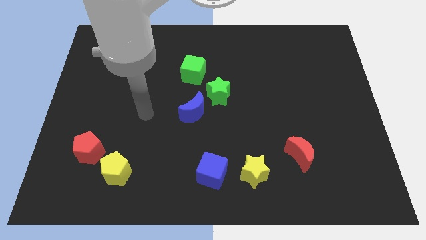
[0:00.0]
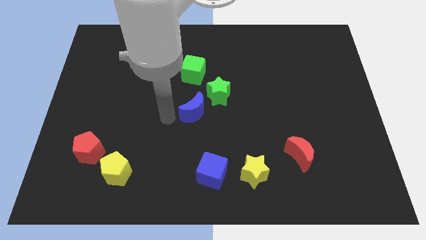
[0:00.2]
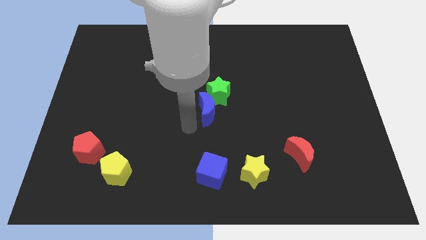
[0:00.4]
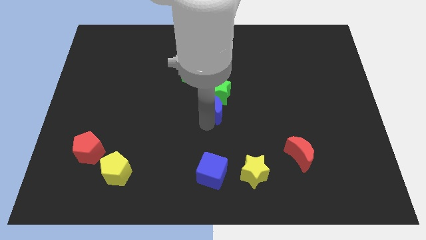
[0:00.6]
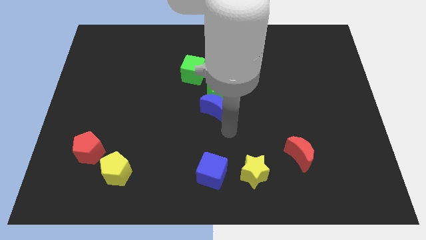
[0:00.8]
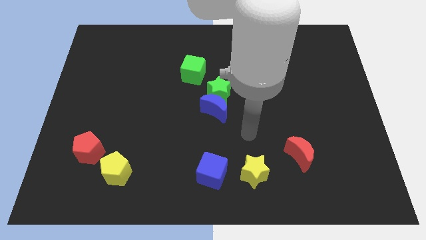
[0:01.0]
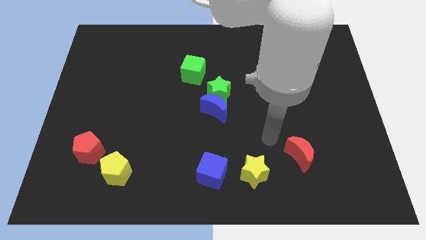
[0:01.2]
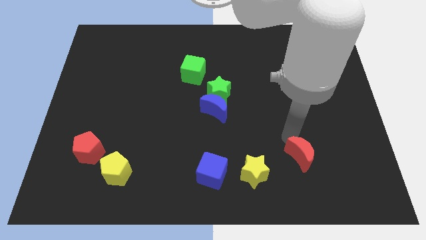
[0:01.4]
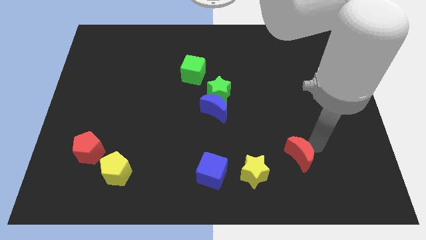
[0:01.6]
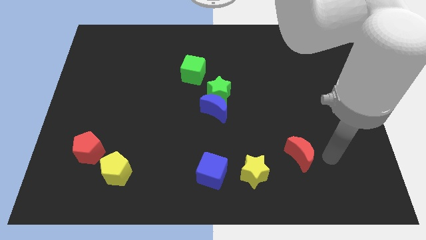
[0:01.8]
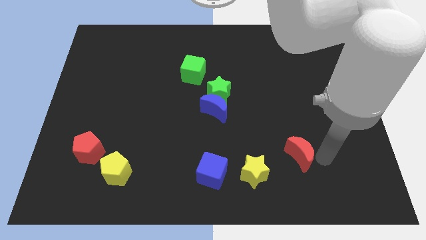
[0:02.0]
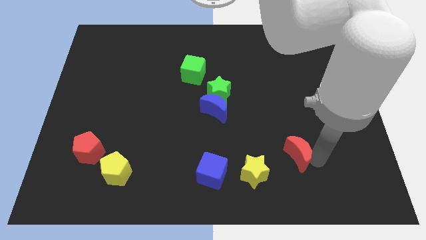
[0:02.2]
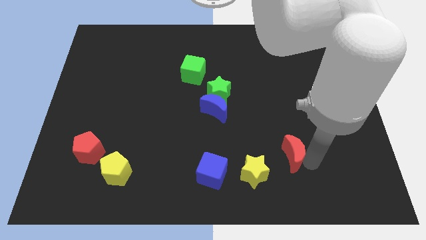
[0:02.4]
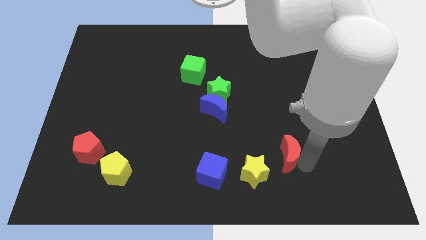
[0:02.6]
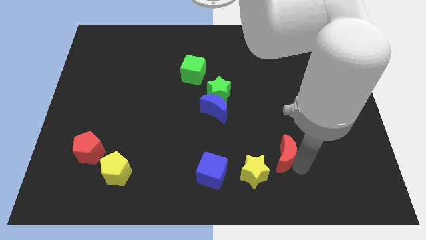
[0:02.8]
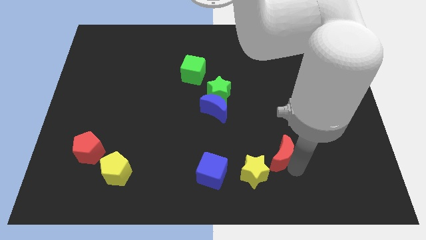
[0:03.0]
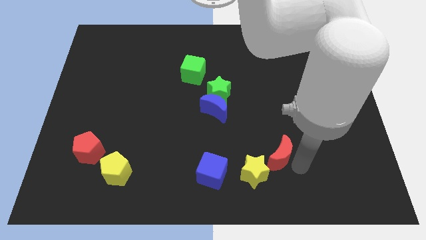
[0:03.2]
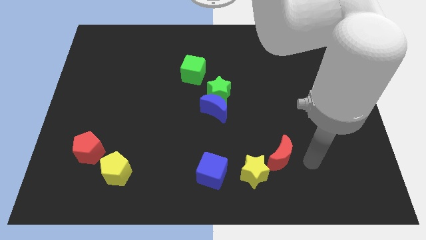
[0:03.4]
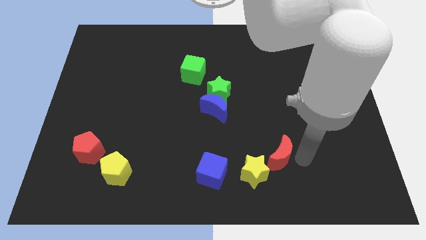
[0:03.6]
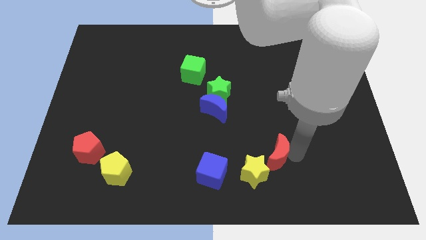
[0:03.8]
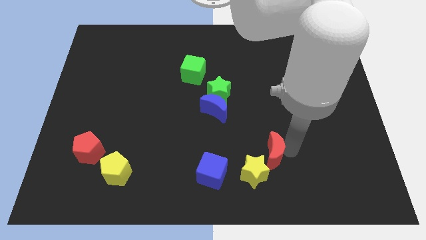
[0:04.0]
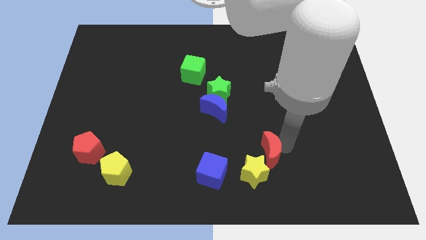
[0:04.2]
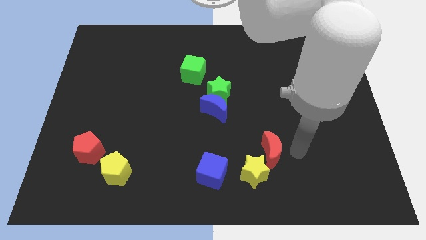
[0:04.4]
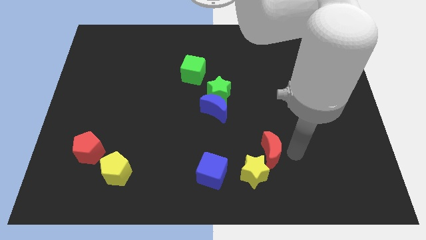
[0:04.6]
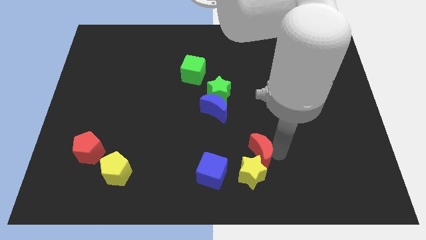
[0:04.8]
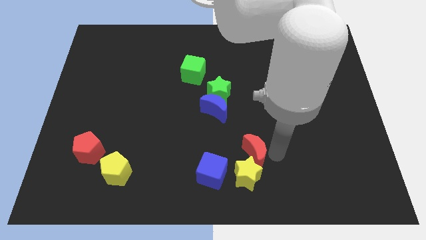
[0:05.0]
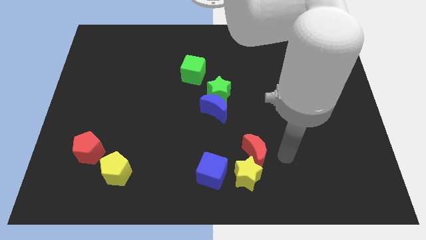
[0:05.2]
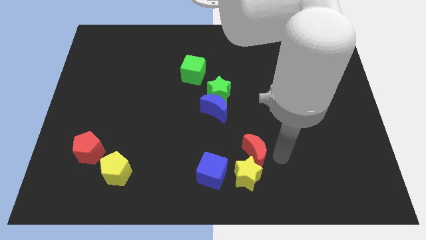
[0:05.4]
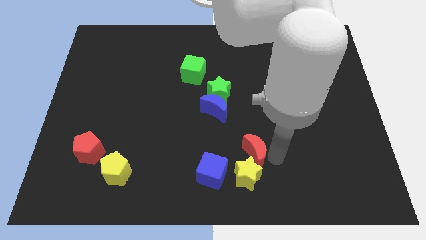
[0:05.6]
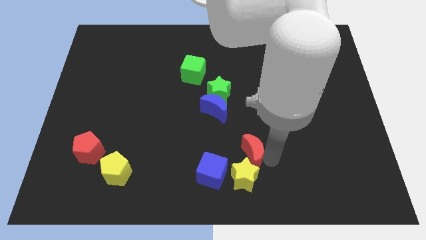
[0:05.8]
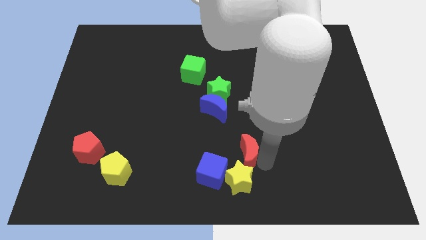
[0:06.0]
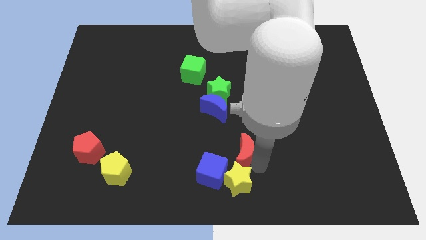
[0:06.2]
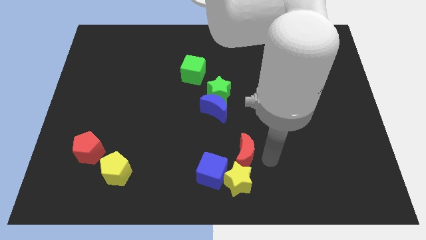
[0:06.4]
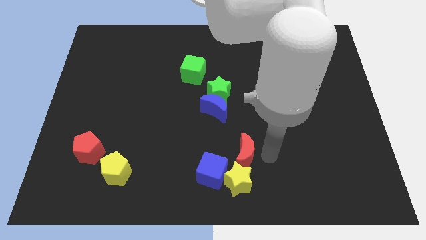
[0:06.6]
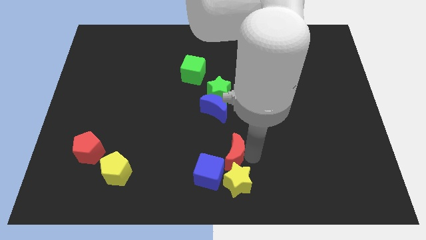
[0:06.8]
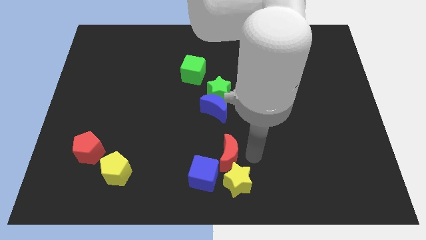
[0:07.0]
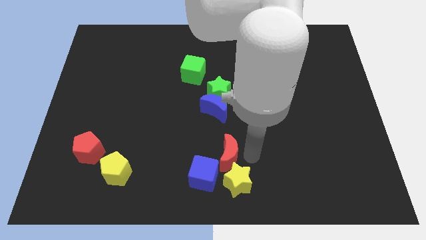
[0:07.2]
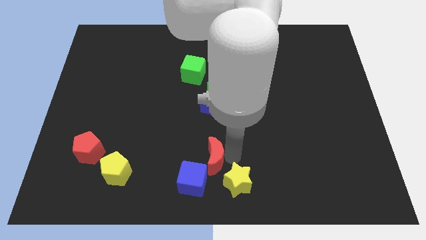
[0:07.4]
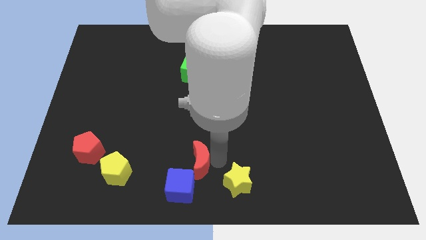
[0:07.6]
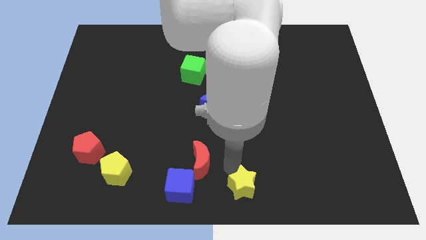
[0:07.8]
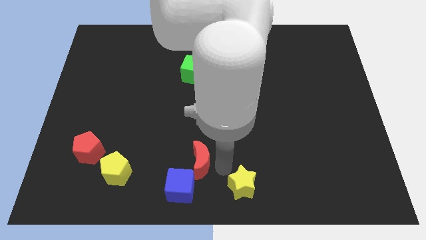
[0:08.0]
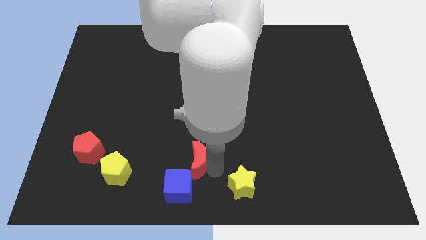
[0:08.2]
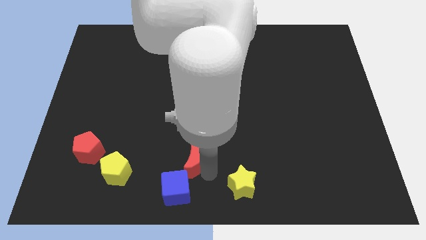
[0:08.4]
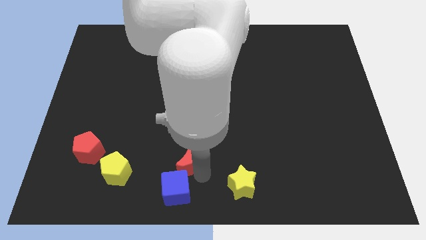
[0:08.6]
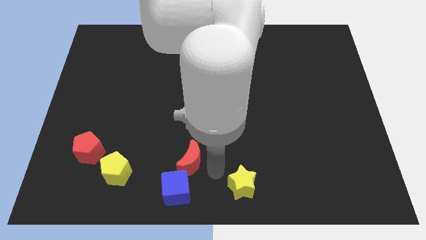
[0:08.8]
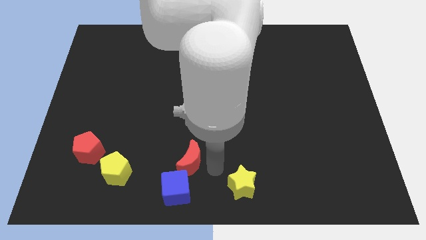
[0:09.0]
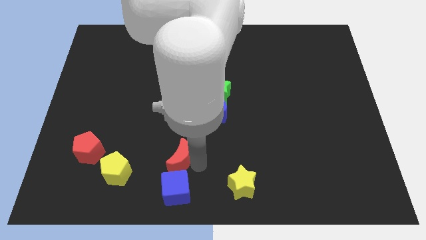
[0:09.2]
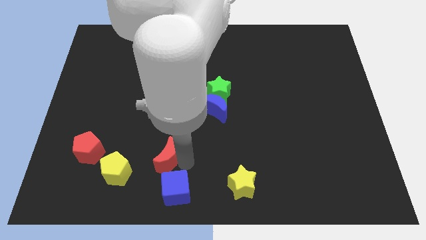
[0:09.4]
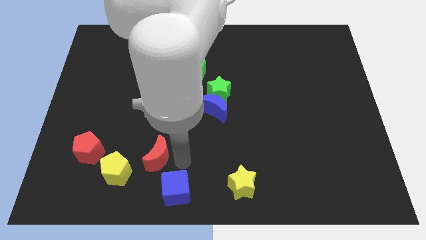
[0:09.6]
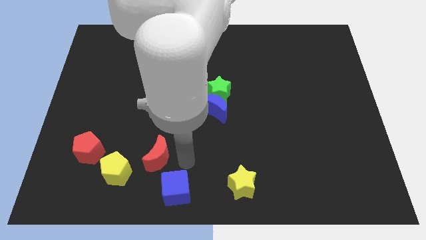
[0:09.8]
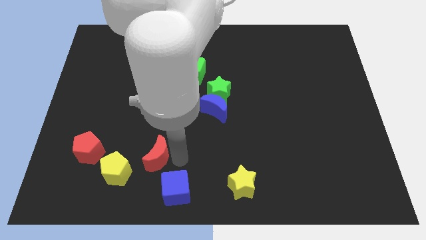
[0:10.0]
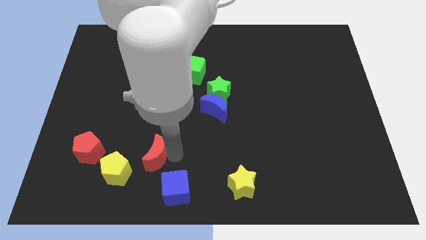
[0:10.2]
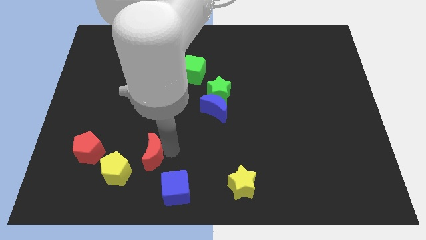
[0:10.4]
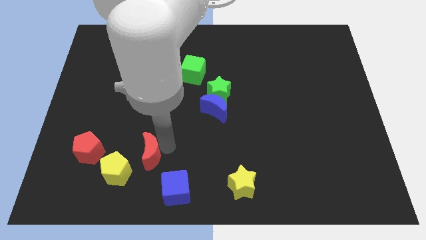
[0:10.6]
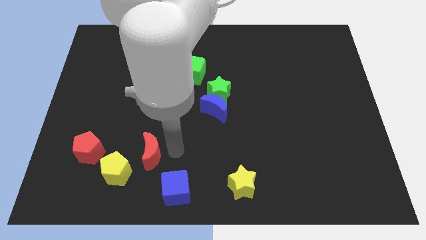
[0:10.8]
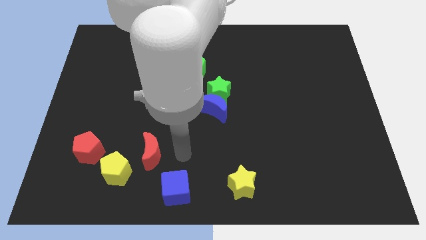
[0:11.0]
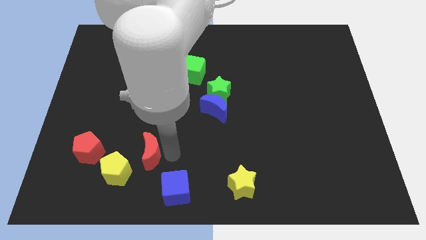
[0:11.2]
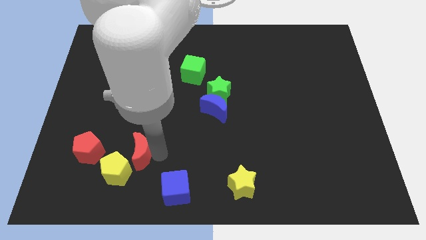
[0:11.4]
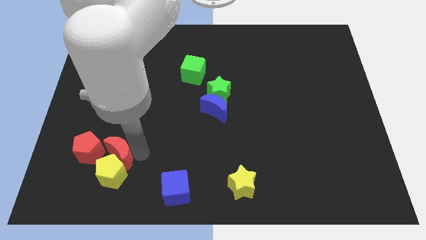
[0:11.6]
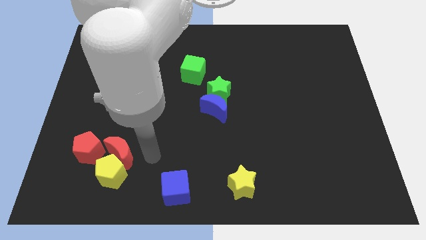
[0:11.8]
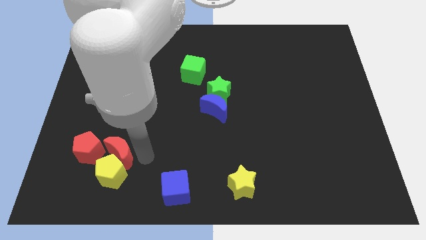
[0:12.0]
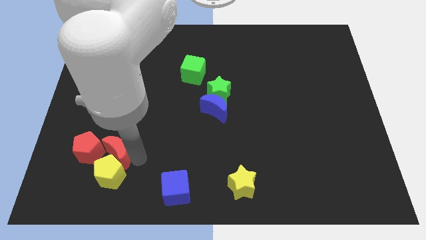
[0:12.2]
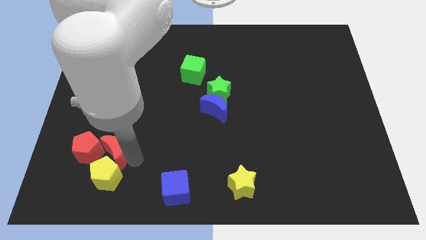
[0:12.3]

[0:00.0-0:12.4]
push the red moon next to the red pentagon

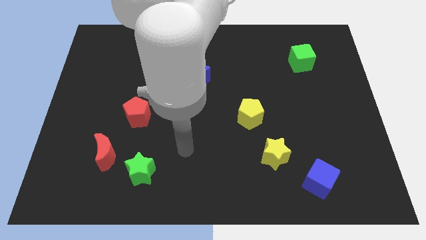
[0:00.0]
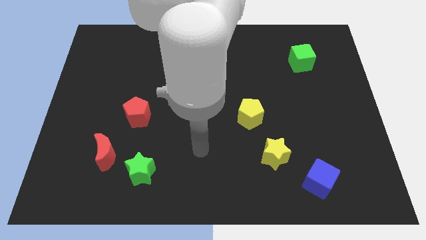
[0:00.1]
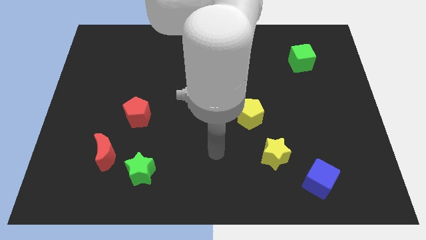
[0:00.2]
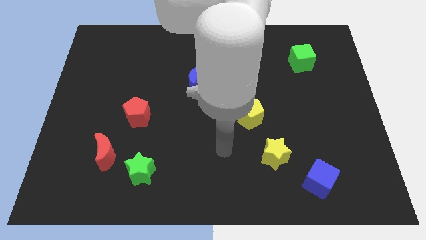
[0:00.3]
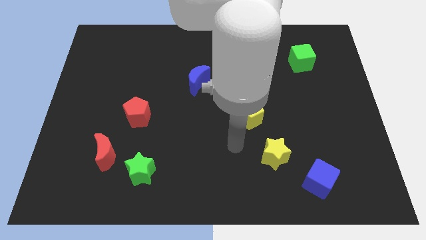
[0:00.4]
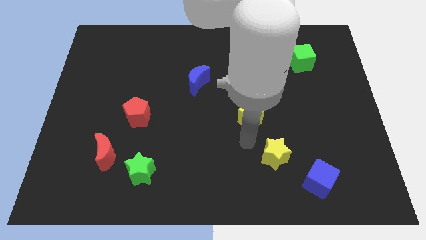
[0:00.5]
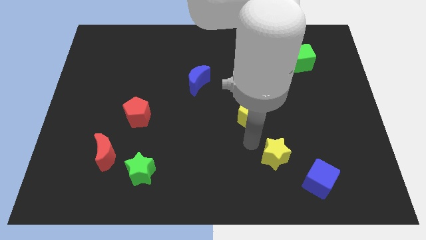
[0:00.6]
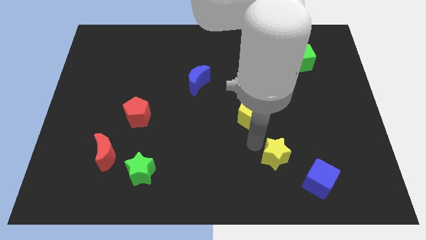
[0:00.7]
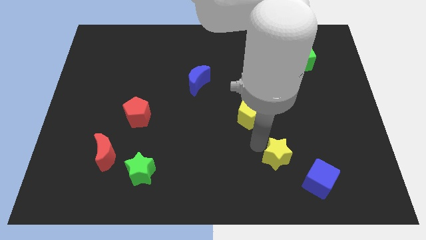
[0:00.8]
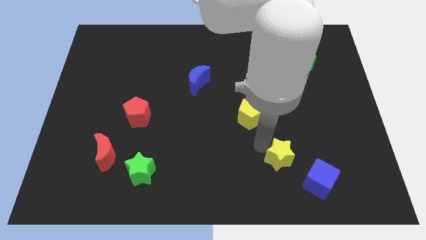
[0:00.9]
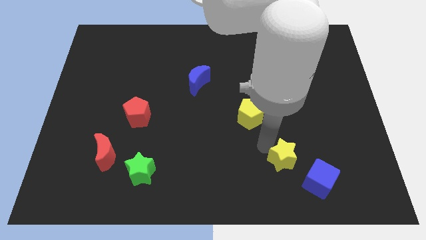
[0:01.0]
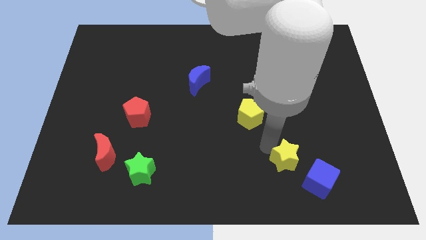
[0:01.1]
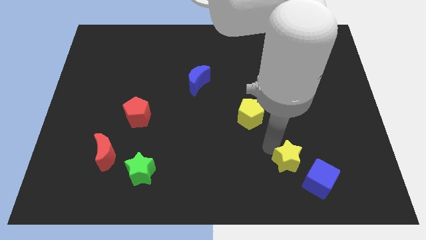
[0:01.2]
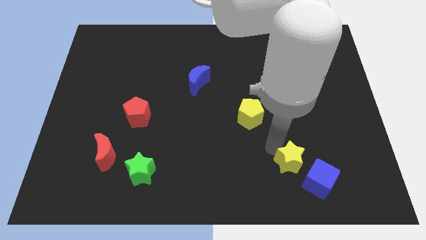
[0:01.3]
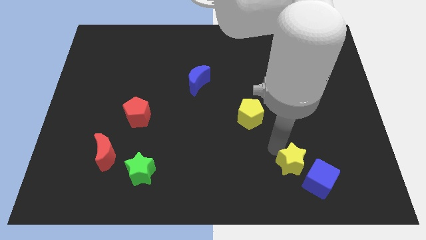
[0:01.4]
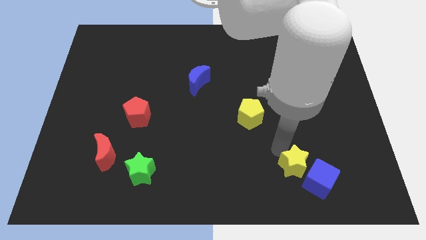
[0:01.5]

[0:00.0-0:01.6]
push the yellow star next to the blue cube
